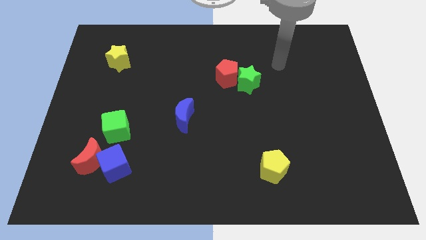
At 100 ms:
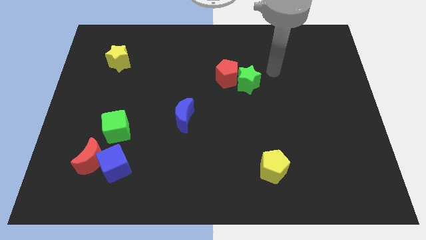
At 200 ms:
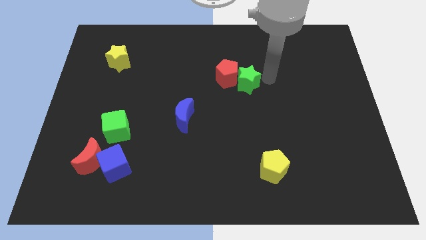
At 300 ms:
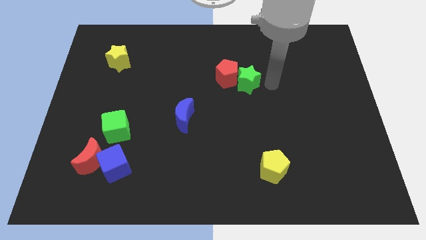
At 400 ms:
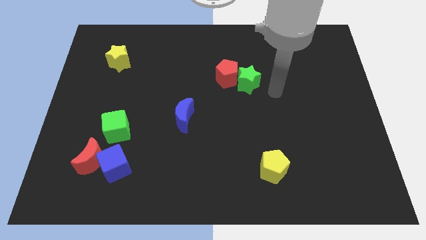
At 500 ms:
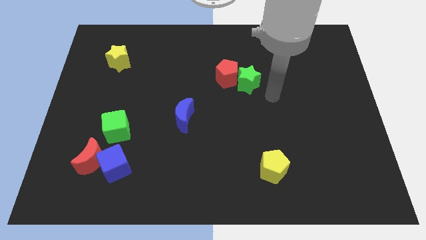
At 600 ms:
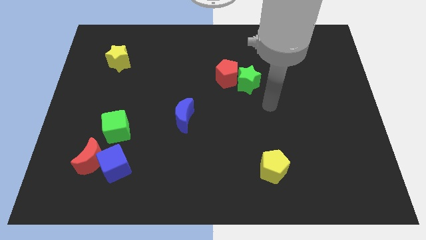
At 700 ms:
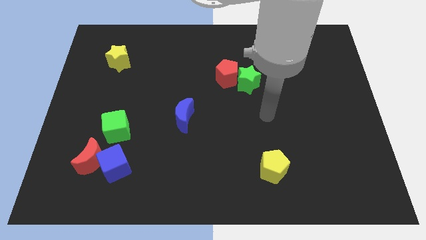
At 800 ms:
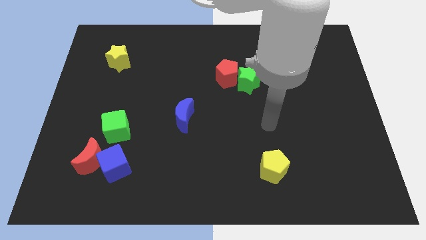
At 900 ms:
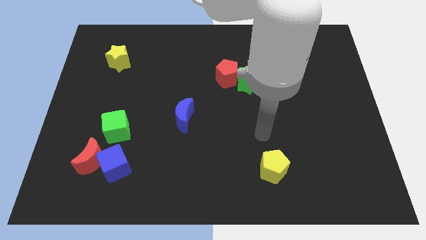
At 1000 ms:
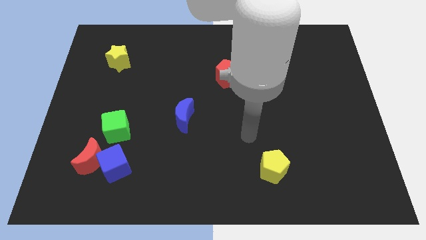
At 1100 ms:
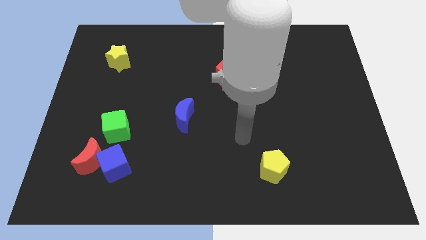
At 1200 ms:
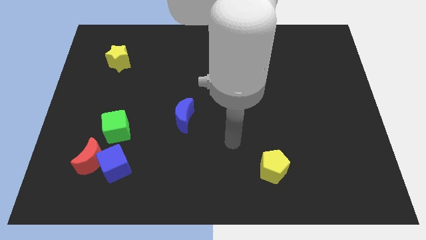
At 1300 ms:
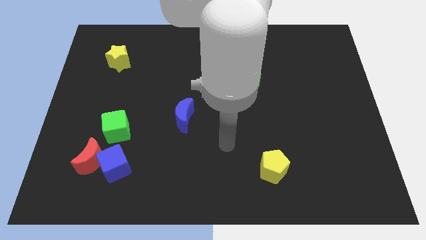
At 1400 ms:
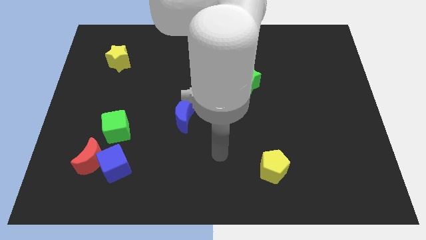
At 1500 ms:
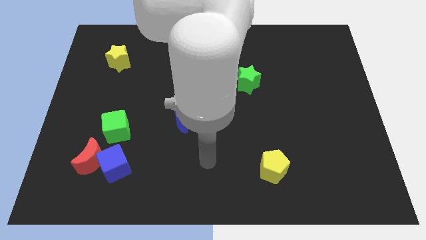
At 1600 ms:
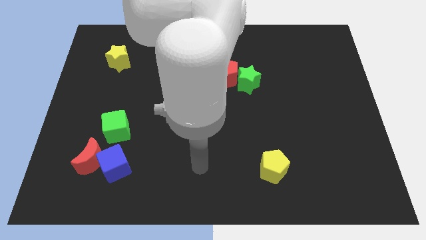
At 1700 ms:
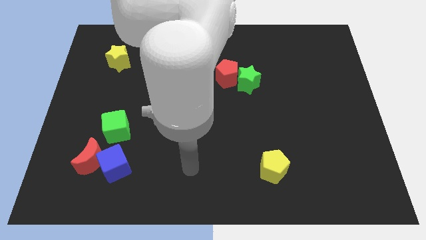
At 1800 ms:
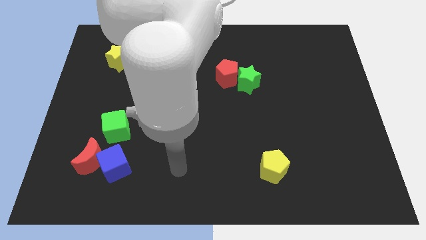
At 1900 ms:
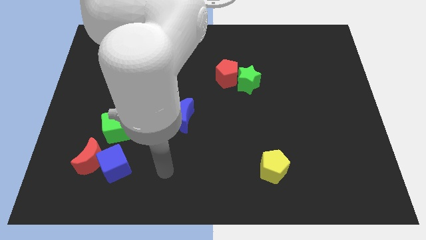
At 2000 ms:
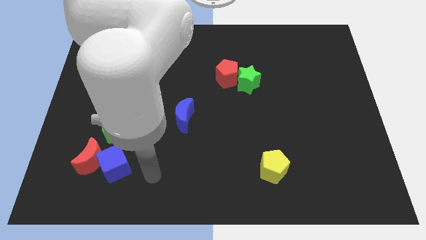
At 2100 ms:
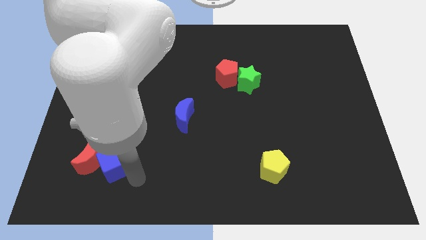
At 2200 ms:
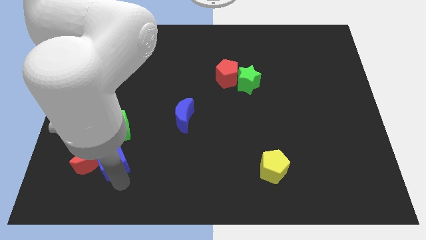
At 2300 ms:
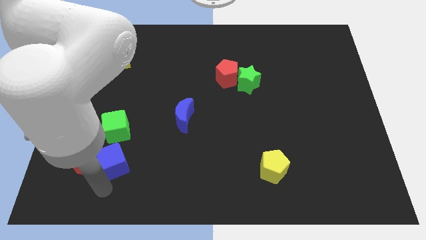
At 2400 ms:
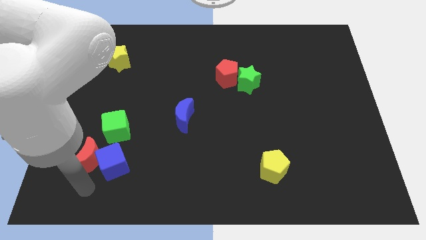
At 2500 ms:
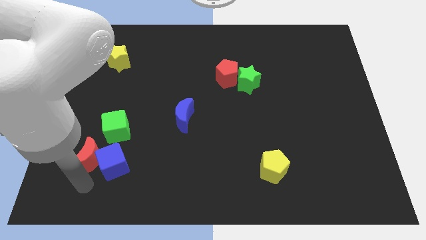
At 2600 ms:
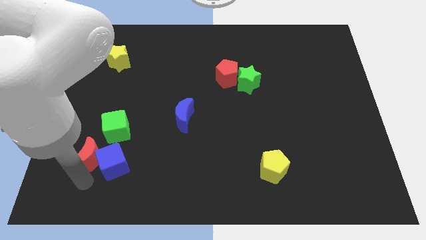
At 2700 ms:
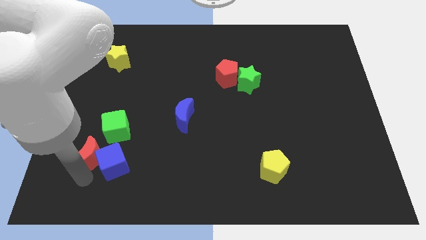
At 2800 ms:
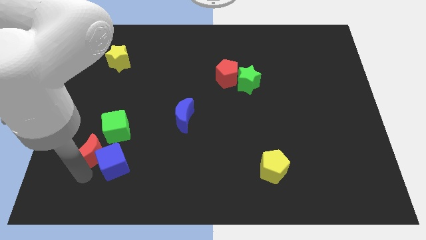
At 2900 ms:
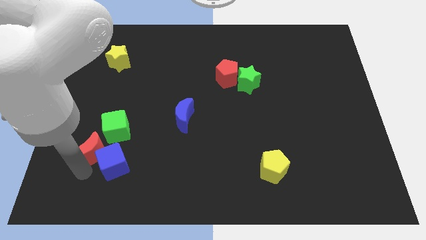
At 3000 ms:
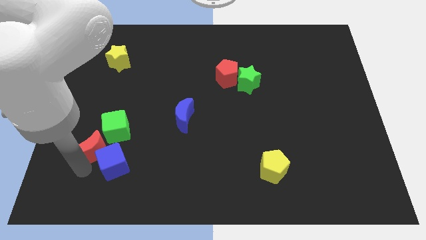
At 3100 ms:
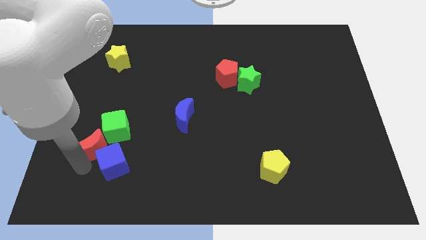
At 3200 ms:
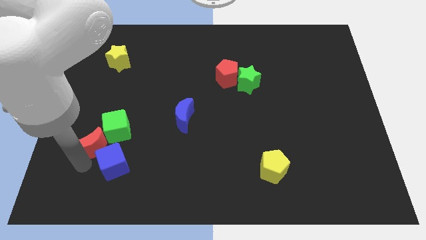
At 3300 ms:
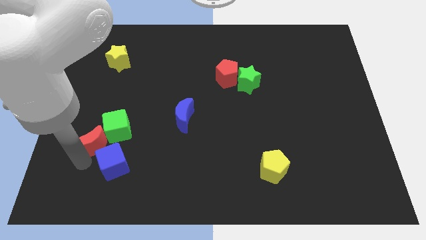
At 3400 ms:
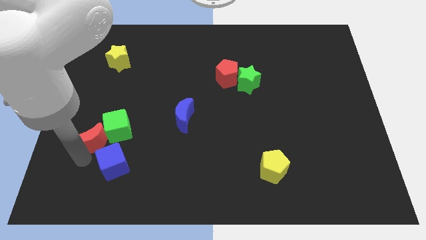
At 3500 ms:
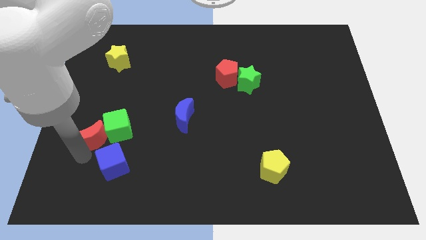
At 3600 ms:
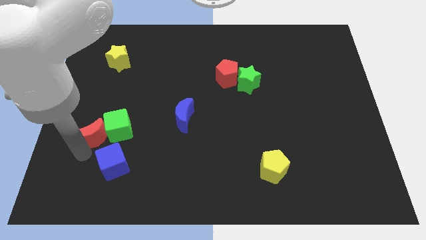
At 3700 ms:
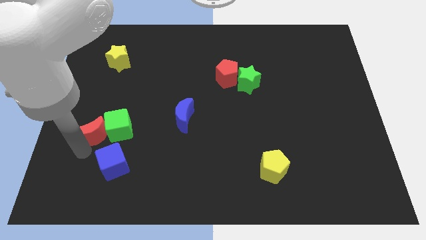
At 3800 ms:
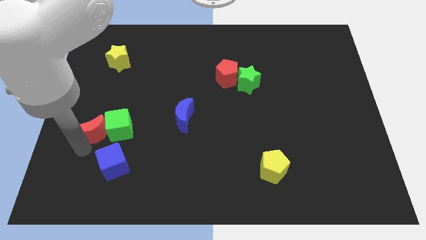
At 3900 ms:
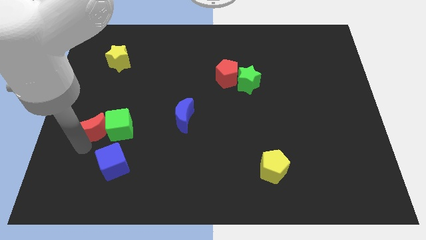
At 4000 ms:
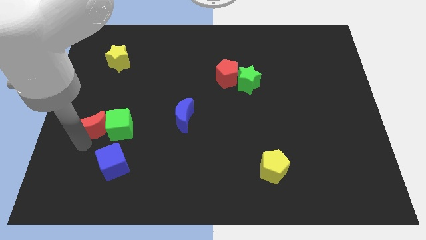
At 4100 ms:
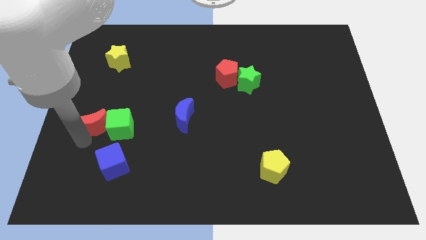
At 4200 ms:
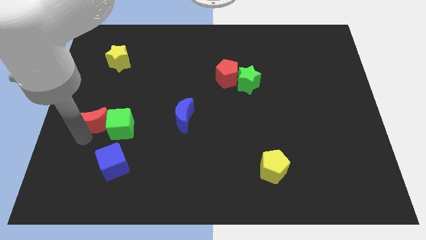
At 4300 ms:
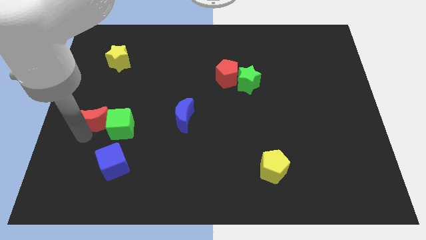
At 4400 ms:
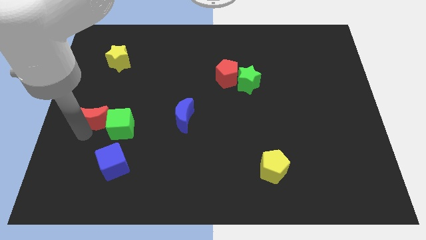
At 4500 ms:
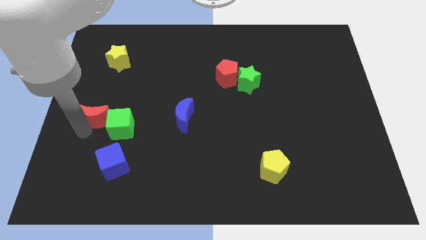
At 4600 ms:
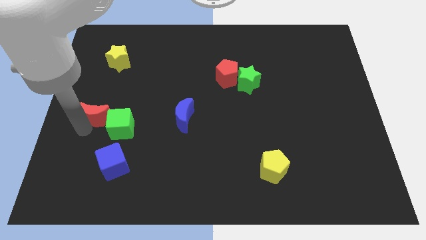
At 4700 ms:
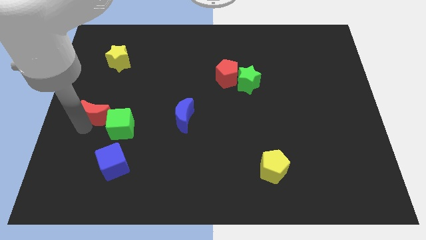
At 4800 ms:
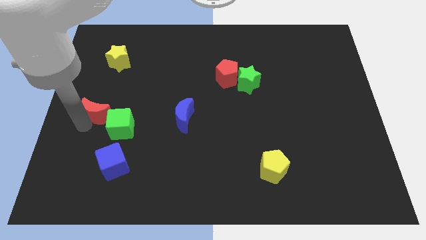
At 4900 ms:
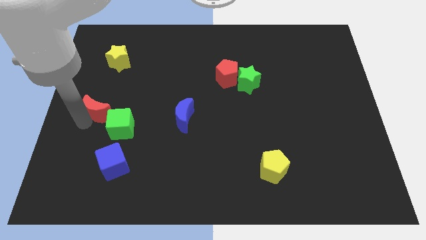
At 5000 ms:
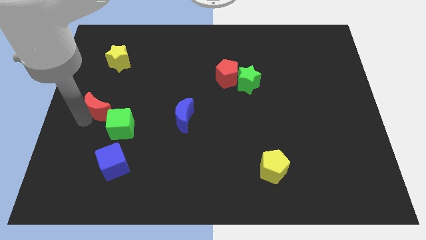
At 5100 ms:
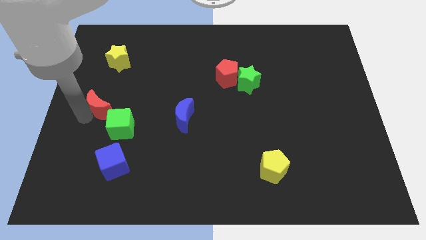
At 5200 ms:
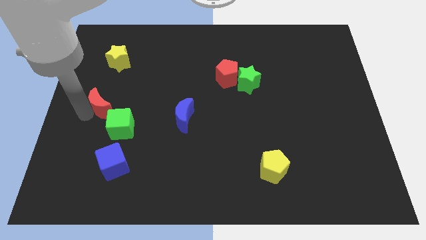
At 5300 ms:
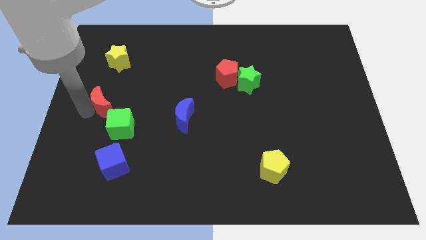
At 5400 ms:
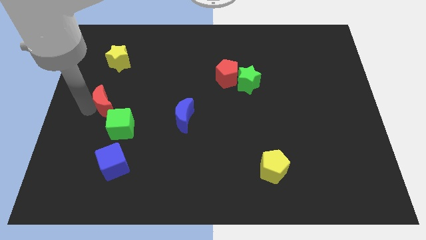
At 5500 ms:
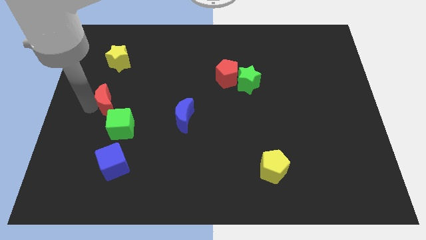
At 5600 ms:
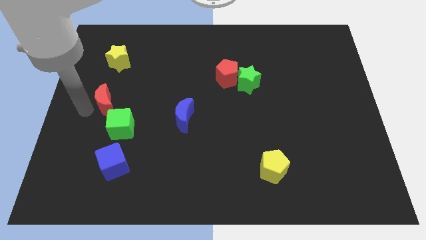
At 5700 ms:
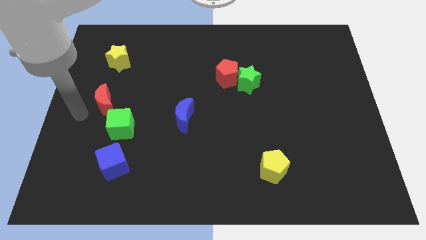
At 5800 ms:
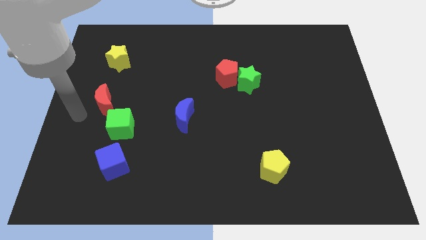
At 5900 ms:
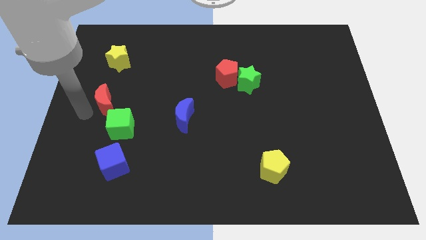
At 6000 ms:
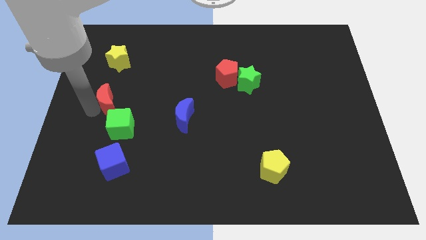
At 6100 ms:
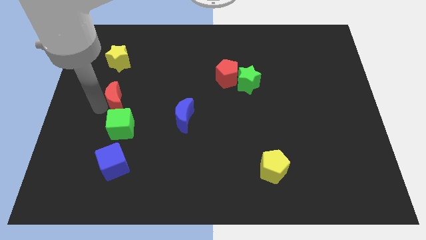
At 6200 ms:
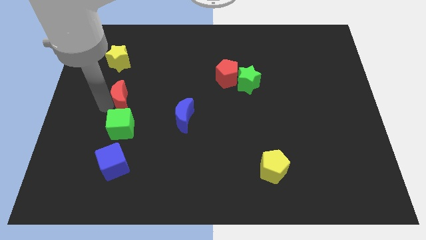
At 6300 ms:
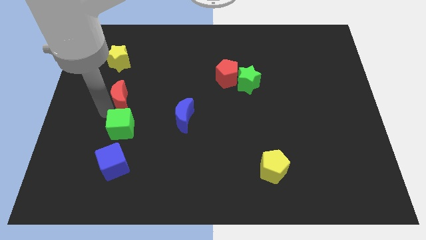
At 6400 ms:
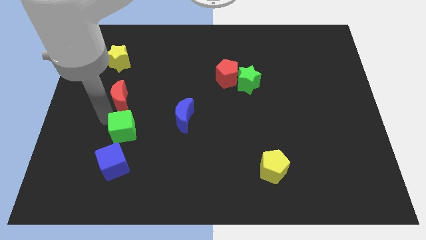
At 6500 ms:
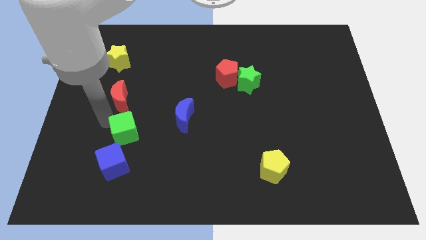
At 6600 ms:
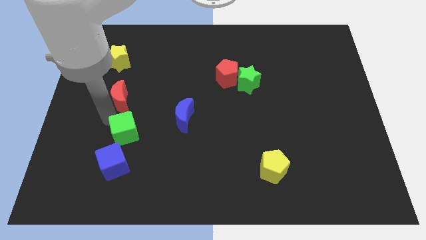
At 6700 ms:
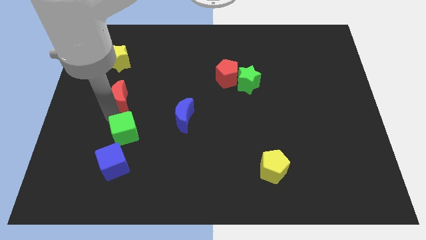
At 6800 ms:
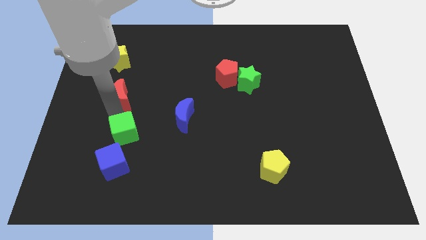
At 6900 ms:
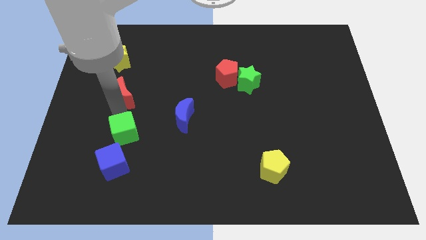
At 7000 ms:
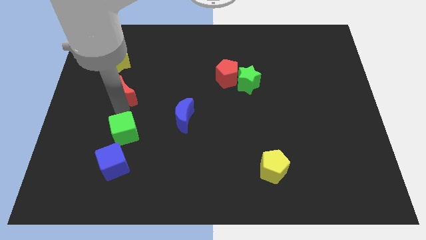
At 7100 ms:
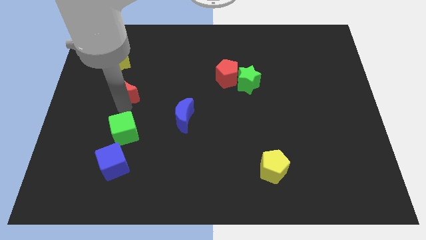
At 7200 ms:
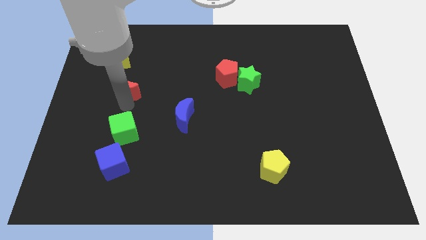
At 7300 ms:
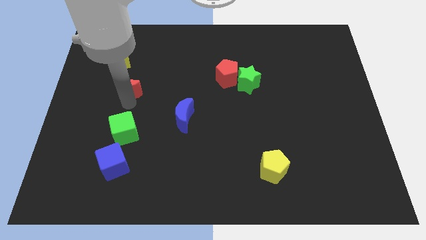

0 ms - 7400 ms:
move the red moon to the bottom right of the yellow star
